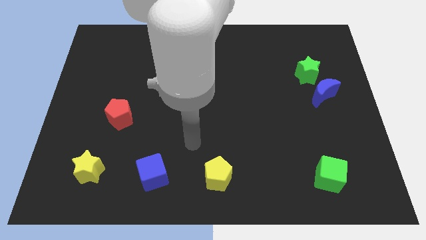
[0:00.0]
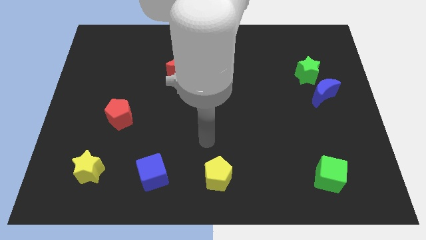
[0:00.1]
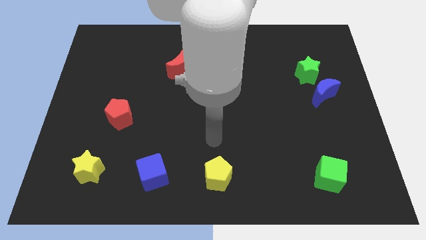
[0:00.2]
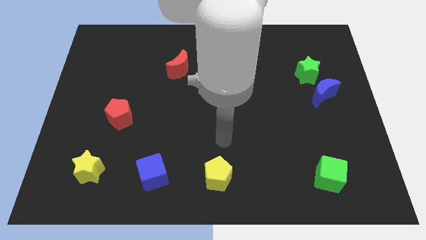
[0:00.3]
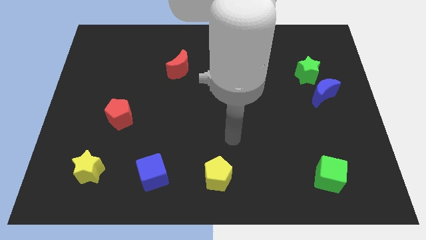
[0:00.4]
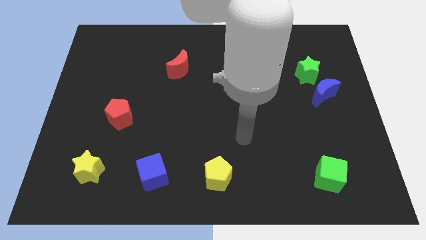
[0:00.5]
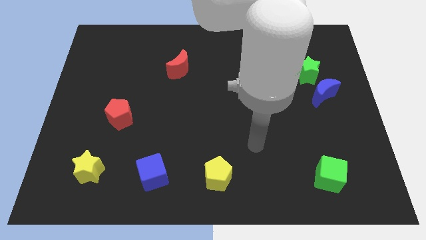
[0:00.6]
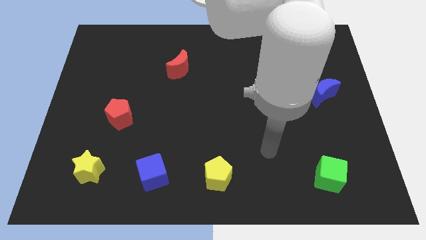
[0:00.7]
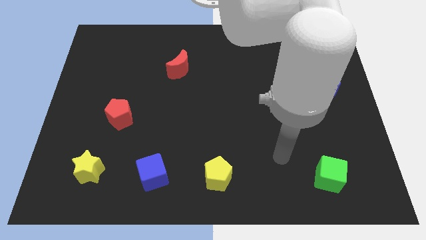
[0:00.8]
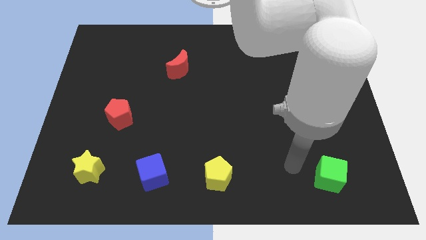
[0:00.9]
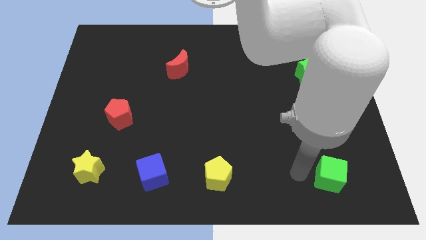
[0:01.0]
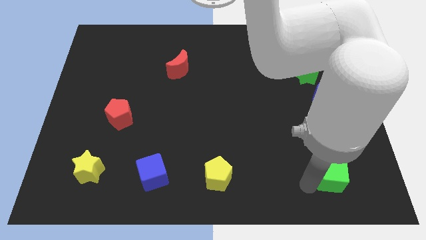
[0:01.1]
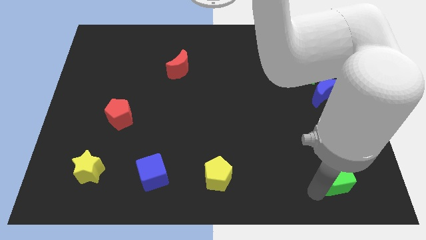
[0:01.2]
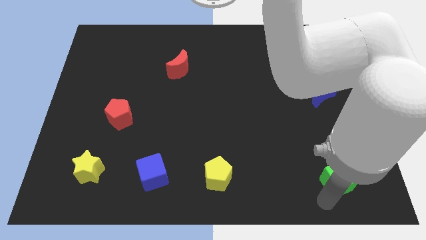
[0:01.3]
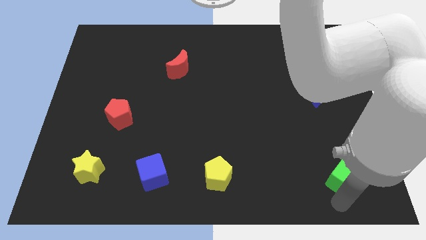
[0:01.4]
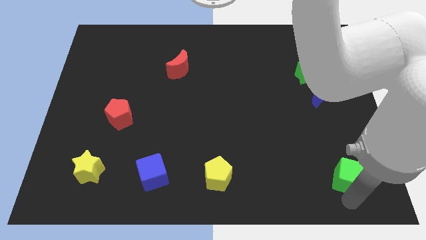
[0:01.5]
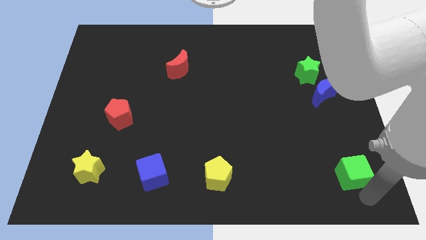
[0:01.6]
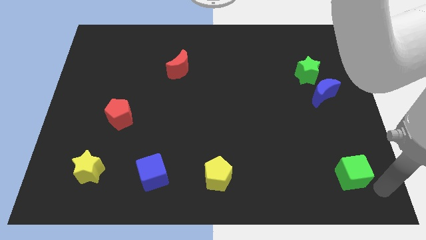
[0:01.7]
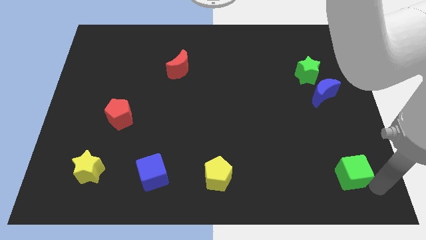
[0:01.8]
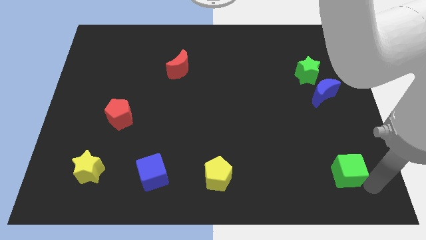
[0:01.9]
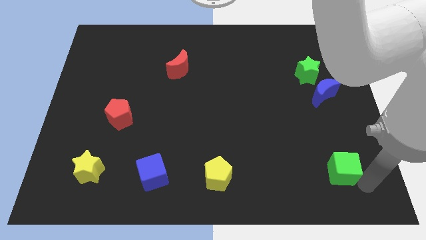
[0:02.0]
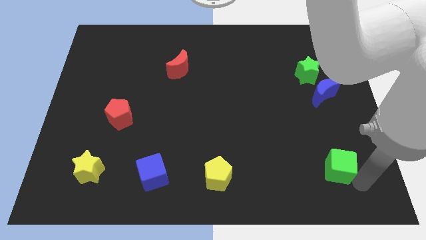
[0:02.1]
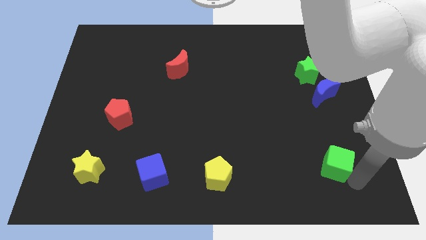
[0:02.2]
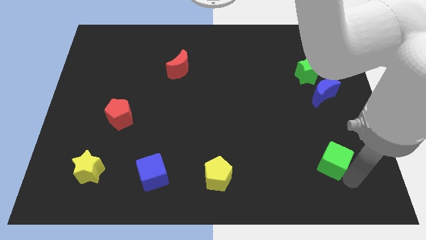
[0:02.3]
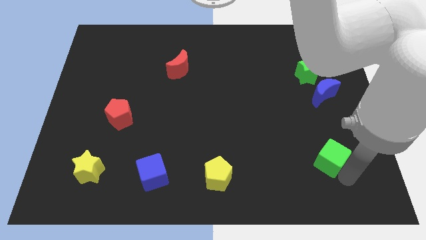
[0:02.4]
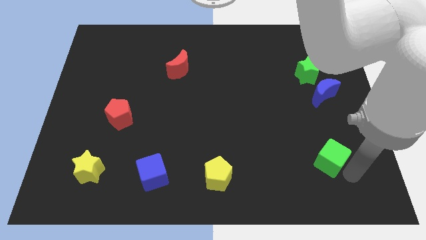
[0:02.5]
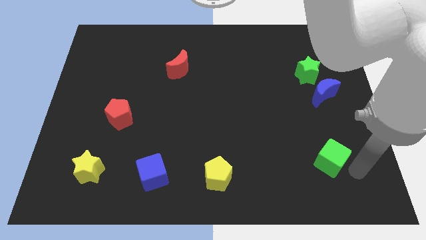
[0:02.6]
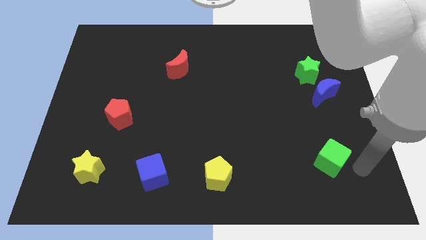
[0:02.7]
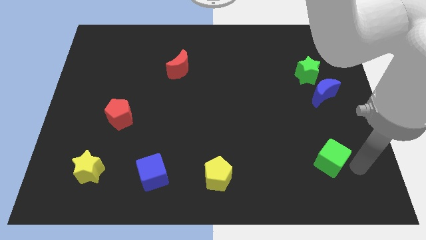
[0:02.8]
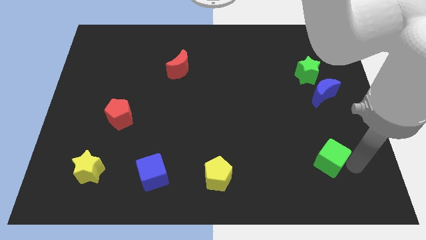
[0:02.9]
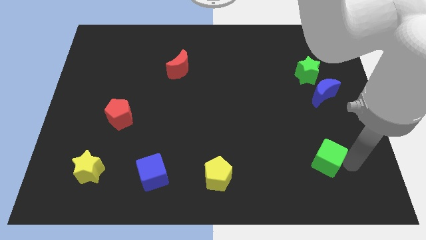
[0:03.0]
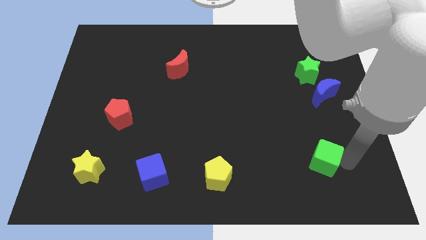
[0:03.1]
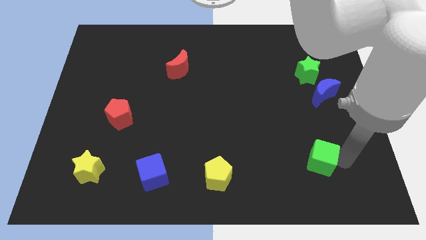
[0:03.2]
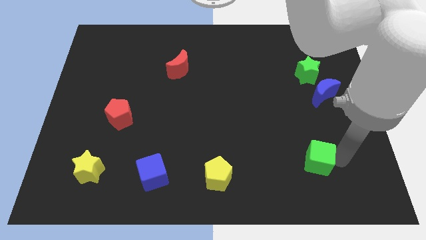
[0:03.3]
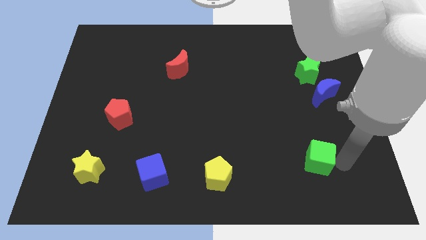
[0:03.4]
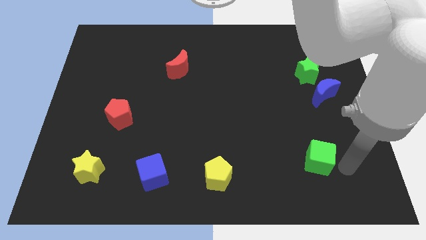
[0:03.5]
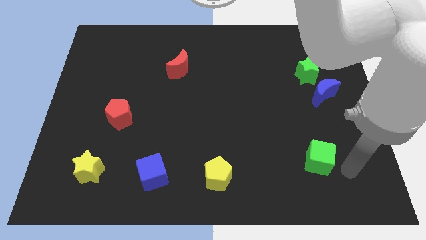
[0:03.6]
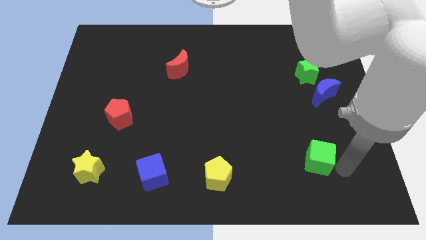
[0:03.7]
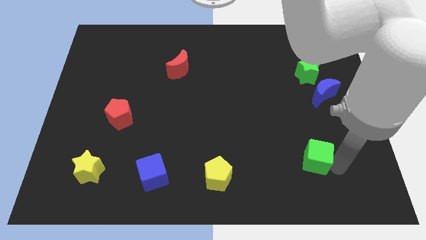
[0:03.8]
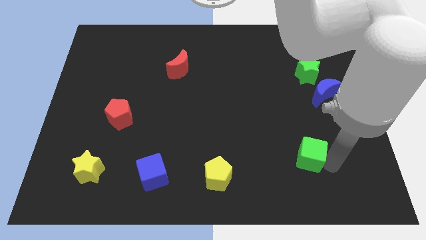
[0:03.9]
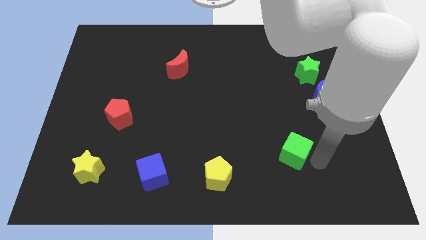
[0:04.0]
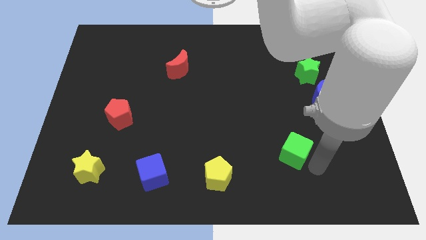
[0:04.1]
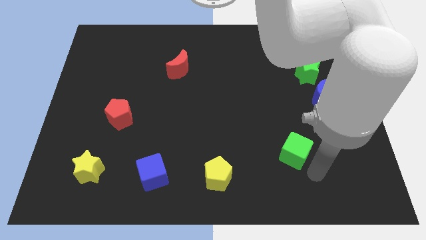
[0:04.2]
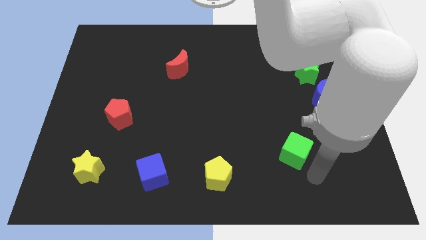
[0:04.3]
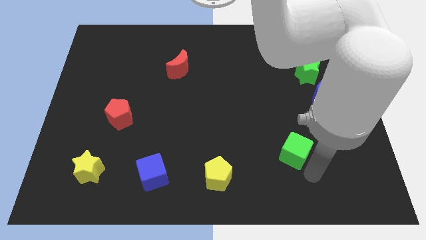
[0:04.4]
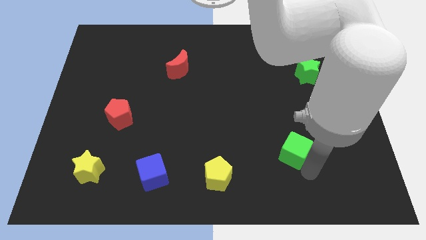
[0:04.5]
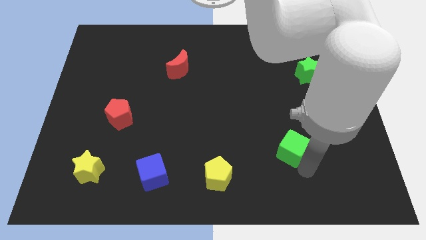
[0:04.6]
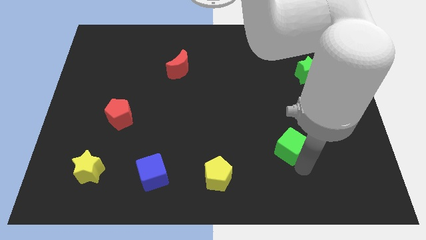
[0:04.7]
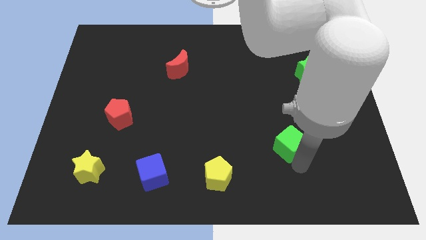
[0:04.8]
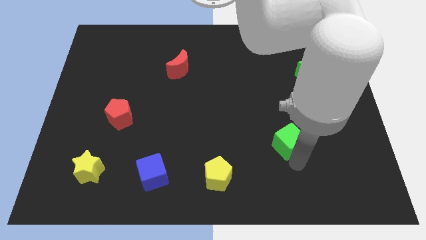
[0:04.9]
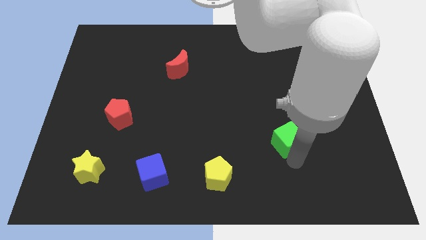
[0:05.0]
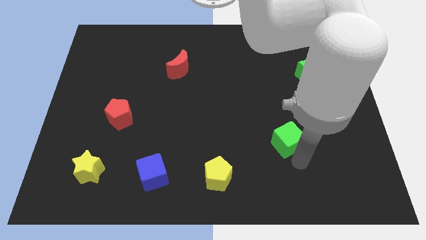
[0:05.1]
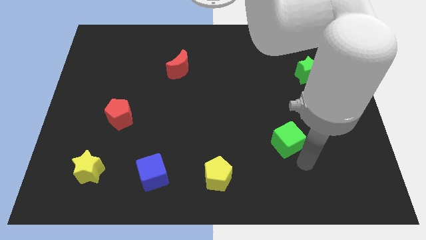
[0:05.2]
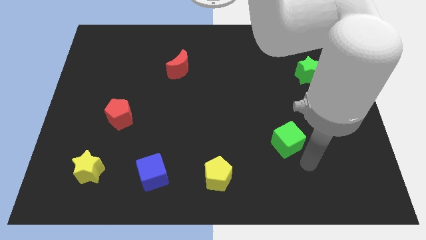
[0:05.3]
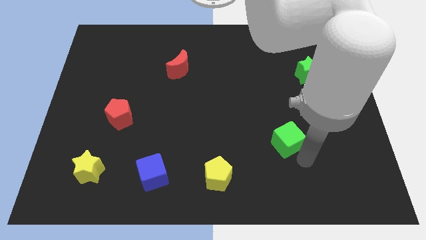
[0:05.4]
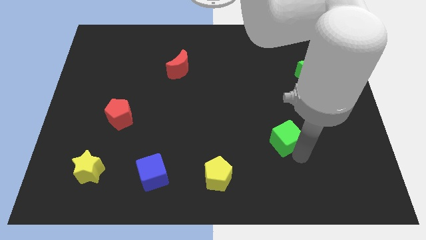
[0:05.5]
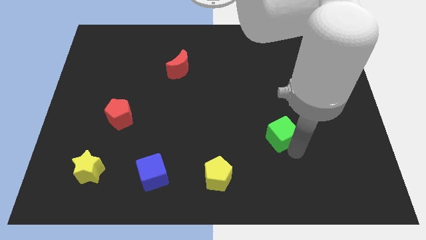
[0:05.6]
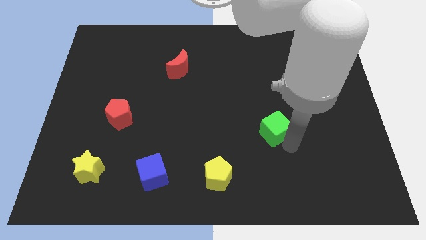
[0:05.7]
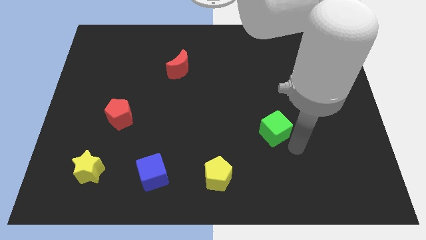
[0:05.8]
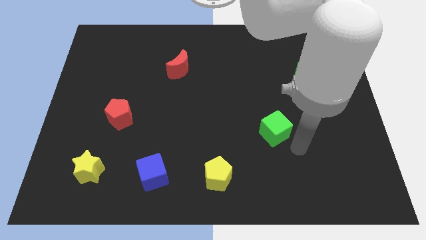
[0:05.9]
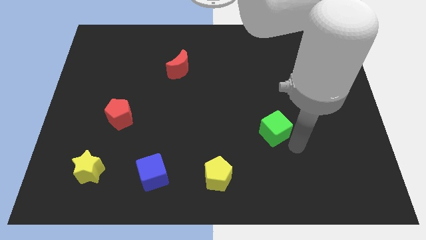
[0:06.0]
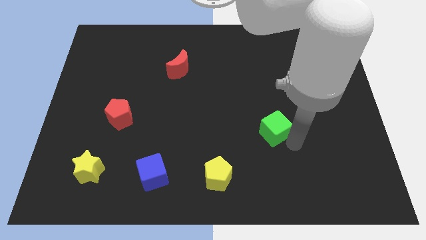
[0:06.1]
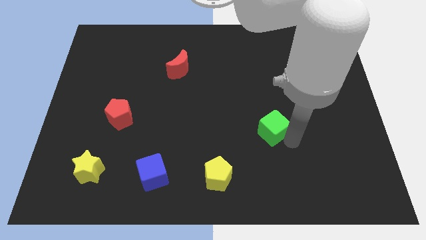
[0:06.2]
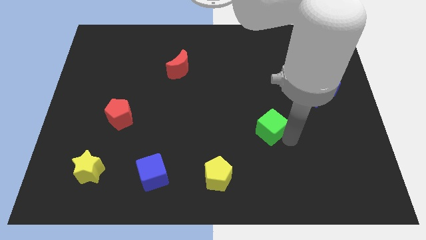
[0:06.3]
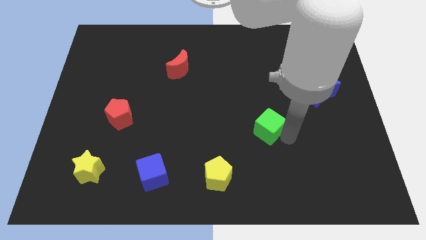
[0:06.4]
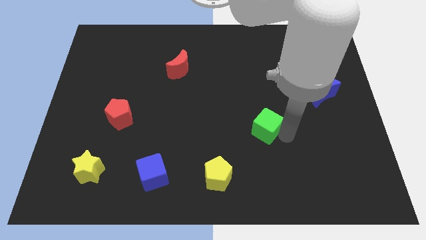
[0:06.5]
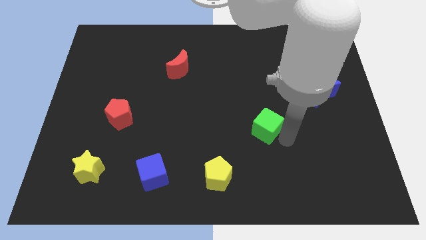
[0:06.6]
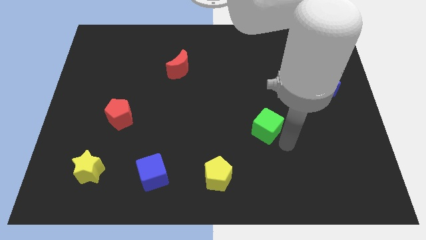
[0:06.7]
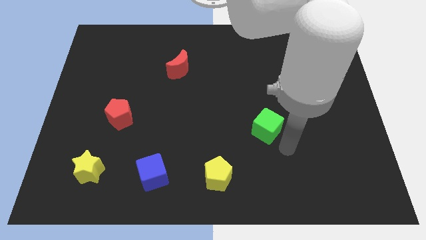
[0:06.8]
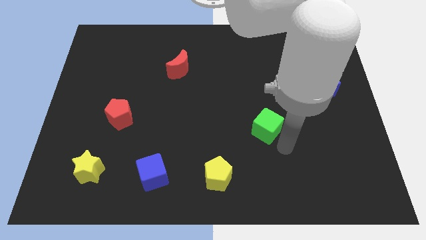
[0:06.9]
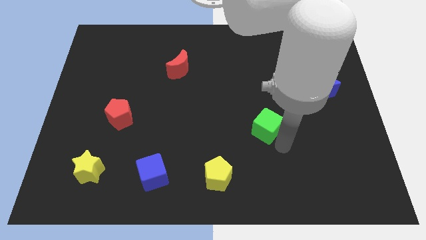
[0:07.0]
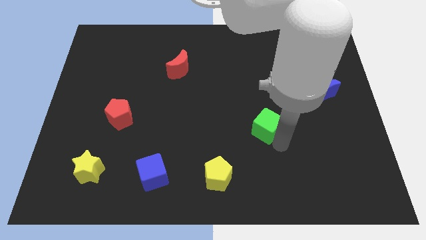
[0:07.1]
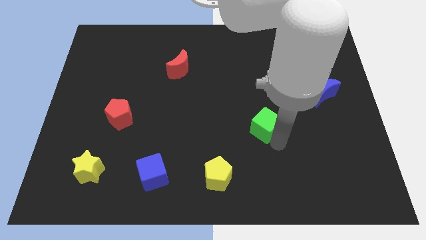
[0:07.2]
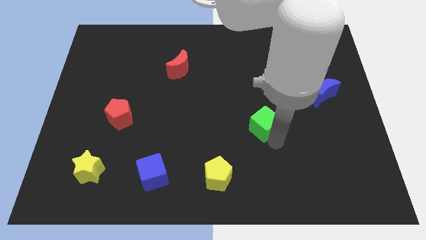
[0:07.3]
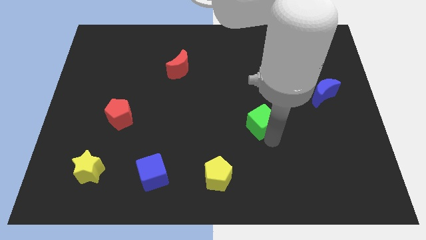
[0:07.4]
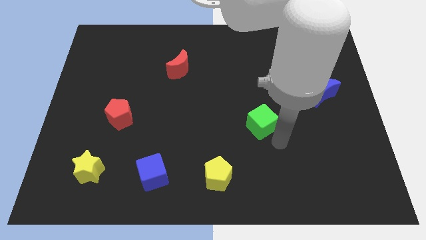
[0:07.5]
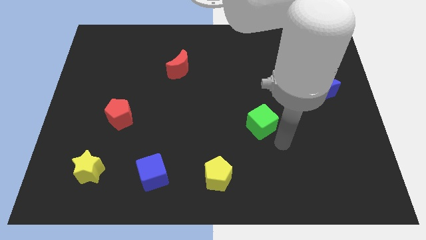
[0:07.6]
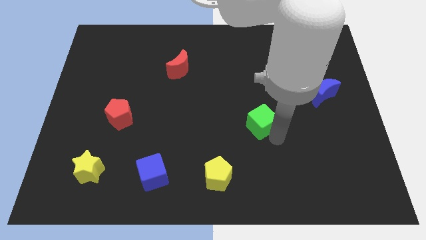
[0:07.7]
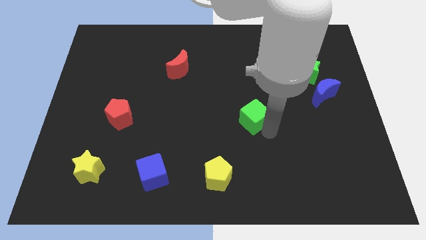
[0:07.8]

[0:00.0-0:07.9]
slide the green cube diagonally upwards and left

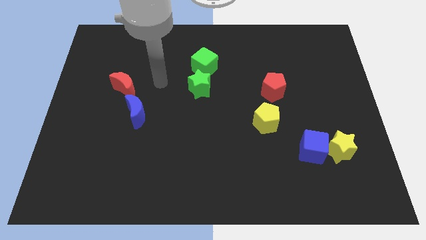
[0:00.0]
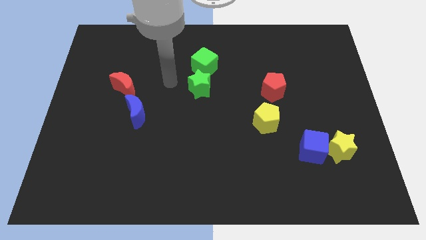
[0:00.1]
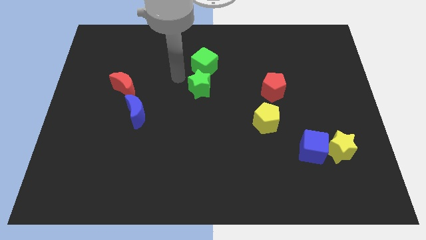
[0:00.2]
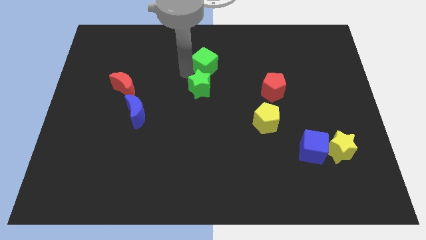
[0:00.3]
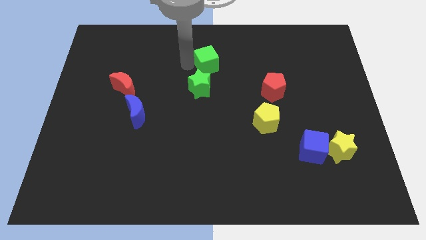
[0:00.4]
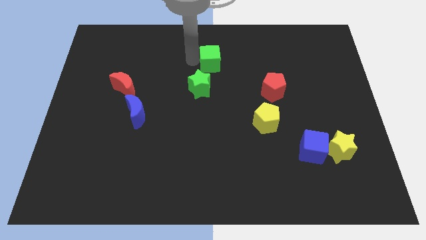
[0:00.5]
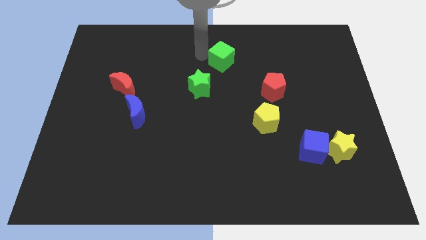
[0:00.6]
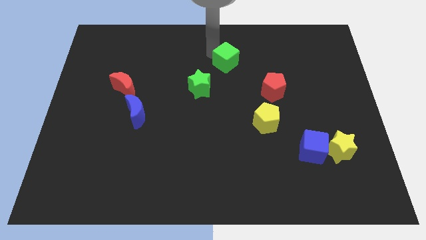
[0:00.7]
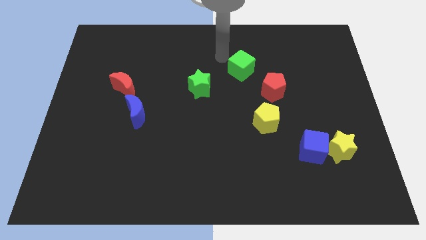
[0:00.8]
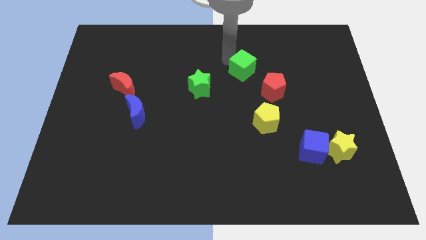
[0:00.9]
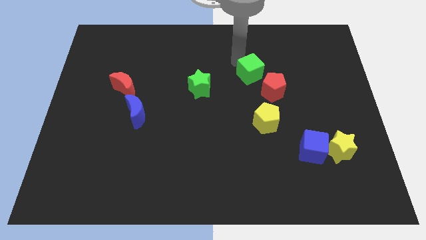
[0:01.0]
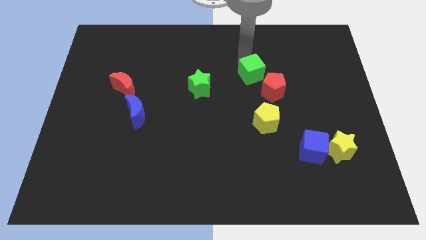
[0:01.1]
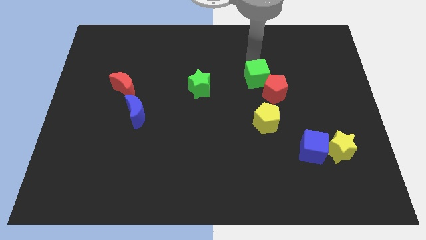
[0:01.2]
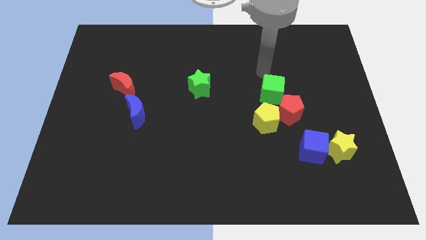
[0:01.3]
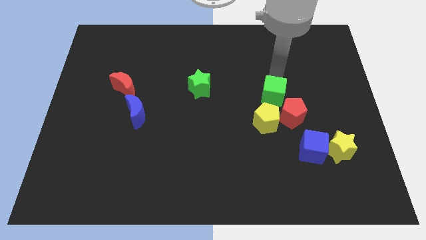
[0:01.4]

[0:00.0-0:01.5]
slide the red pentagon a little bit downwards
